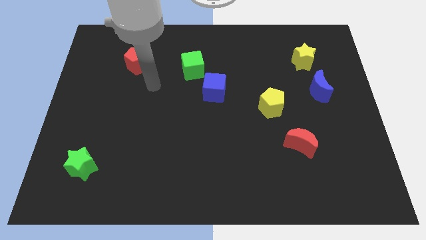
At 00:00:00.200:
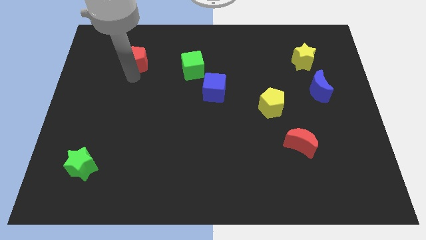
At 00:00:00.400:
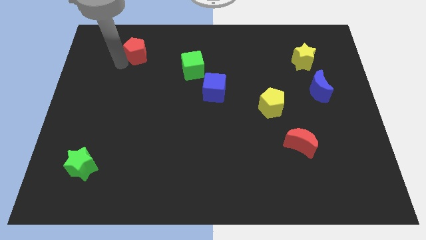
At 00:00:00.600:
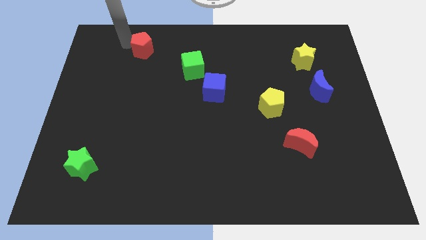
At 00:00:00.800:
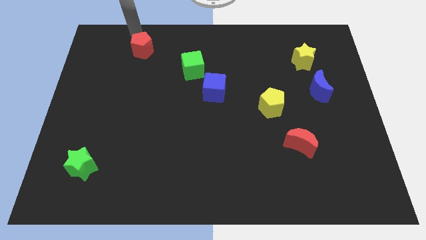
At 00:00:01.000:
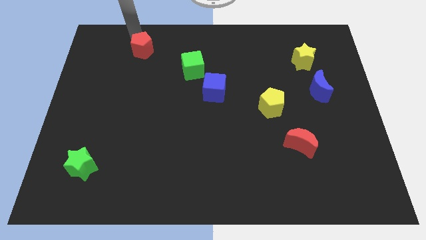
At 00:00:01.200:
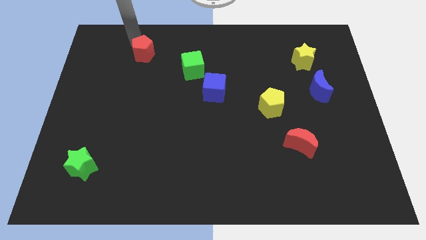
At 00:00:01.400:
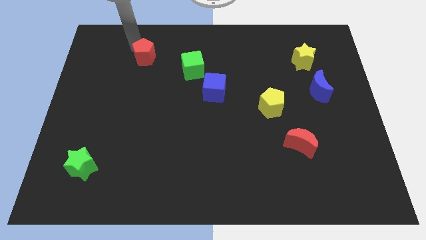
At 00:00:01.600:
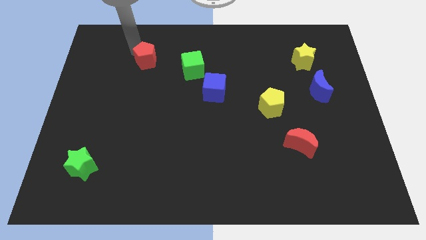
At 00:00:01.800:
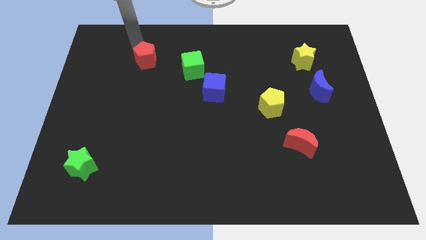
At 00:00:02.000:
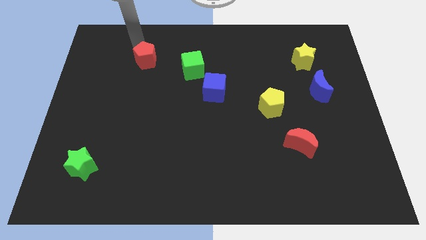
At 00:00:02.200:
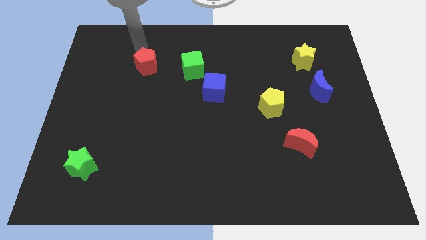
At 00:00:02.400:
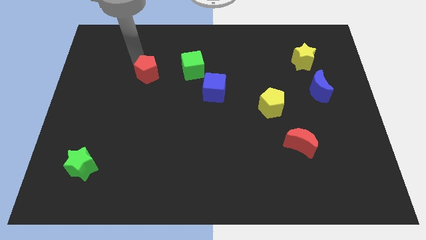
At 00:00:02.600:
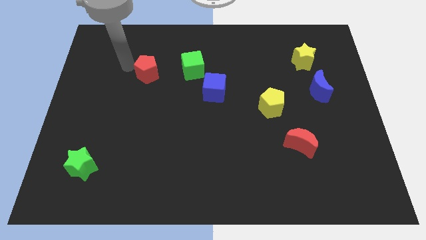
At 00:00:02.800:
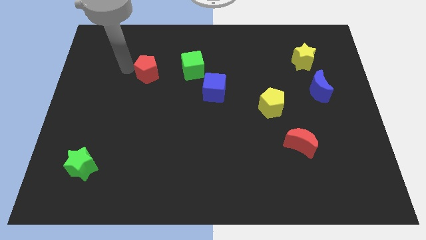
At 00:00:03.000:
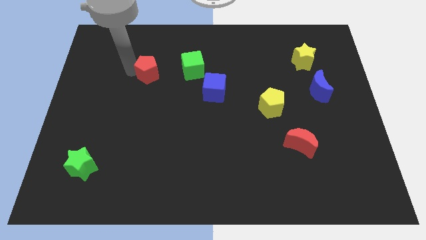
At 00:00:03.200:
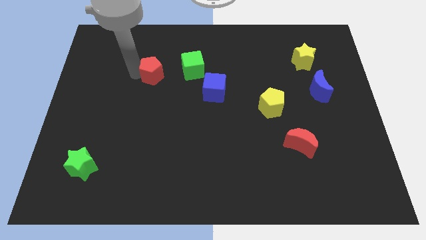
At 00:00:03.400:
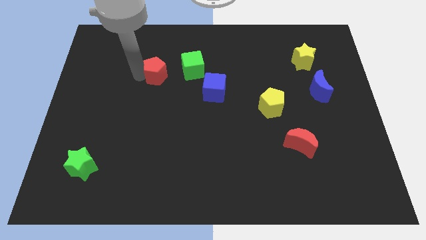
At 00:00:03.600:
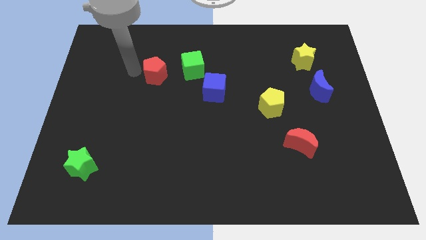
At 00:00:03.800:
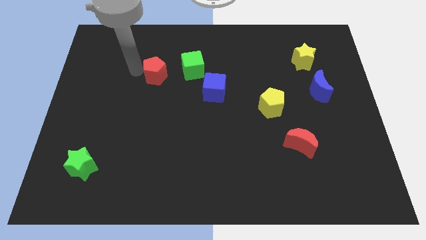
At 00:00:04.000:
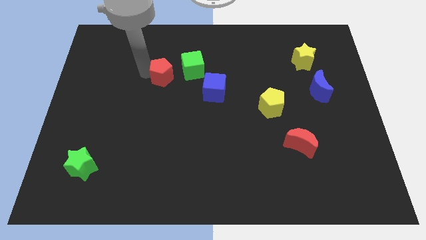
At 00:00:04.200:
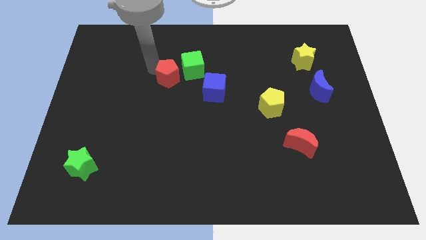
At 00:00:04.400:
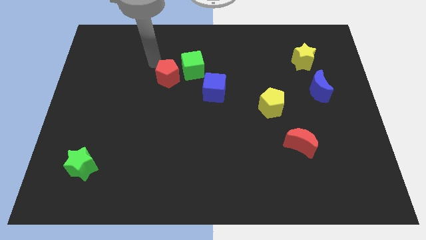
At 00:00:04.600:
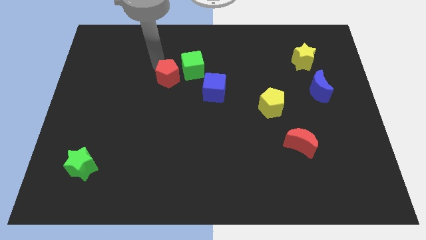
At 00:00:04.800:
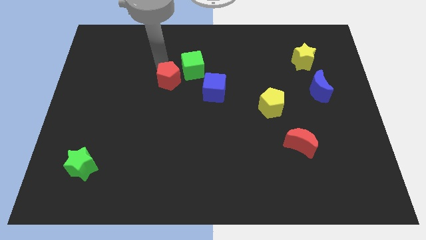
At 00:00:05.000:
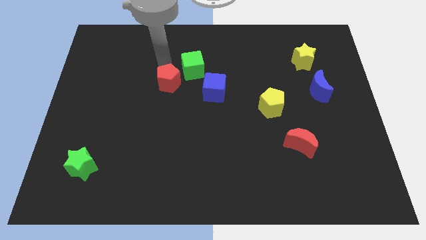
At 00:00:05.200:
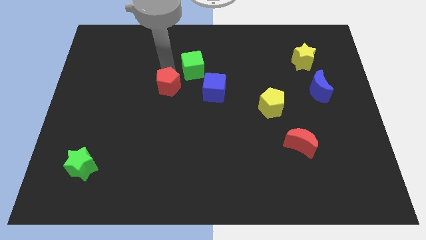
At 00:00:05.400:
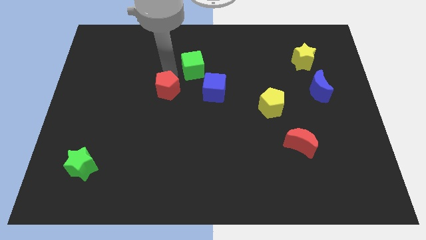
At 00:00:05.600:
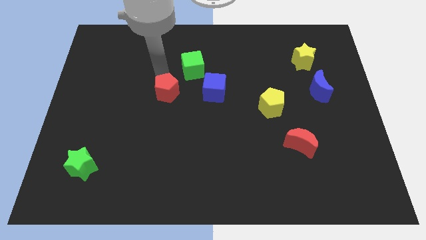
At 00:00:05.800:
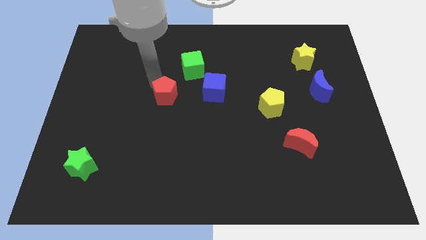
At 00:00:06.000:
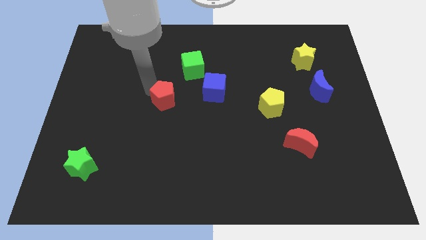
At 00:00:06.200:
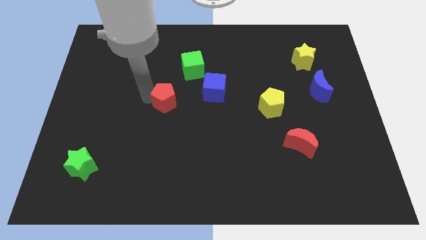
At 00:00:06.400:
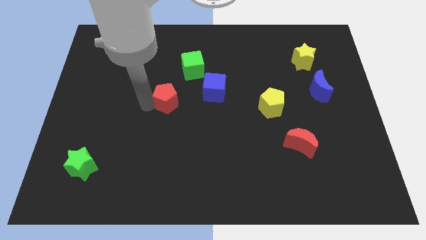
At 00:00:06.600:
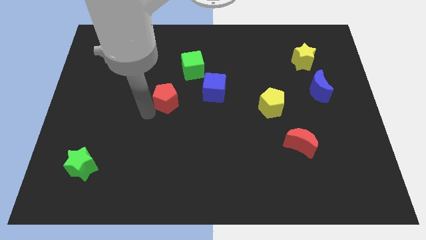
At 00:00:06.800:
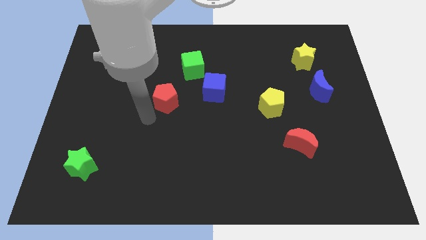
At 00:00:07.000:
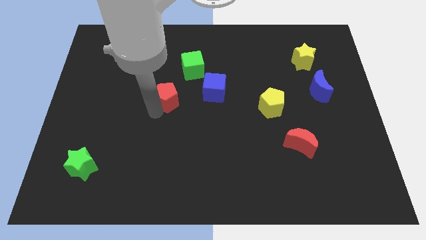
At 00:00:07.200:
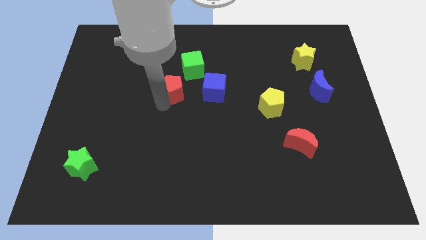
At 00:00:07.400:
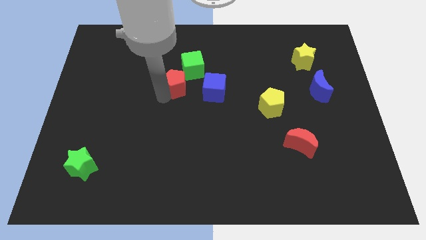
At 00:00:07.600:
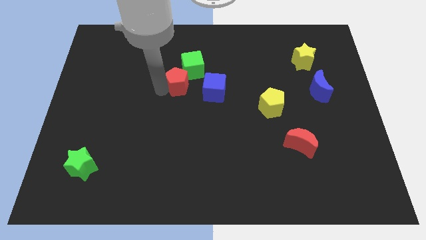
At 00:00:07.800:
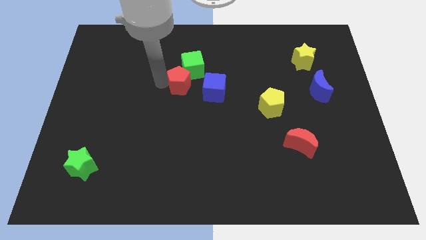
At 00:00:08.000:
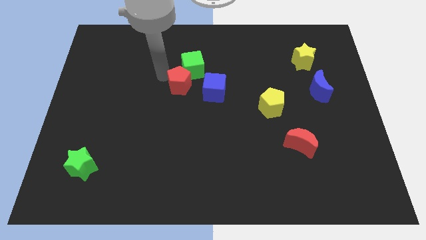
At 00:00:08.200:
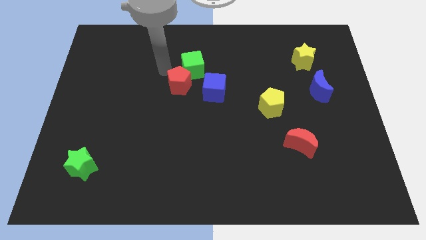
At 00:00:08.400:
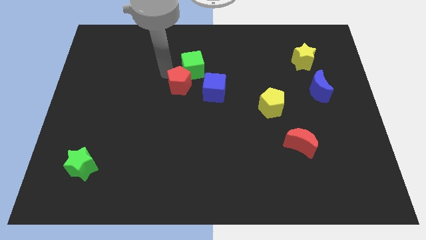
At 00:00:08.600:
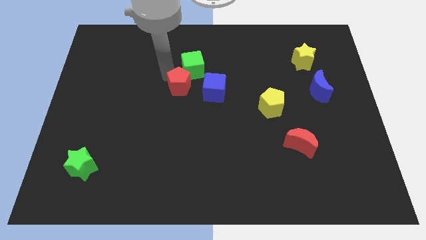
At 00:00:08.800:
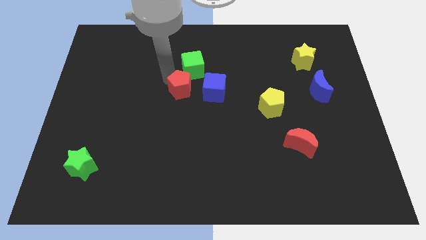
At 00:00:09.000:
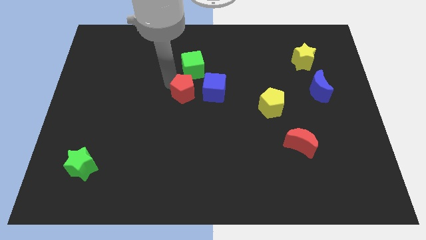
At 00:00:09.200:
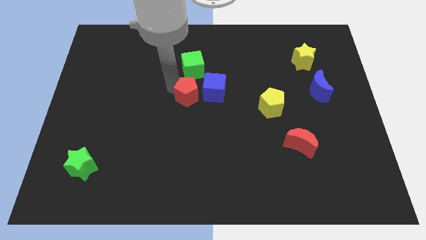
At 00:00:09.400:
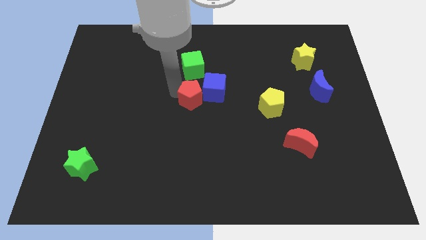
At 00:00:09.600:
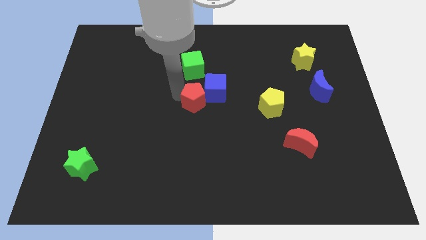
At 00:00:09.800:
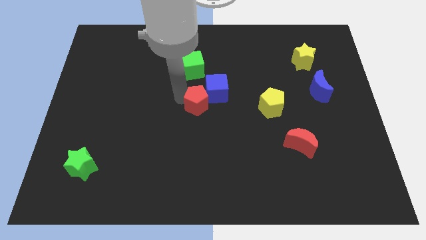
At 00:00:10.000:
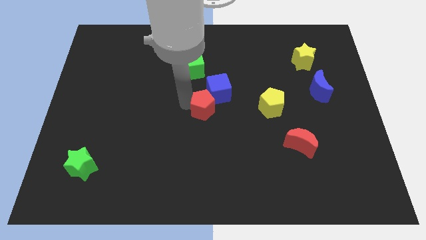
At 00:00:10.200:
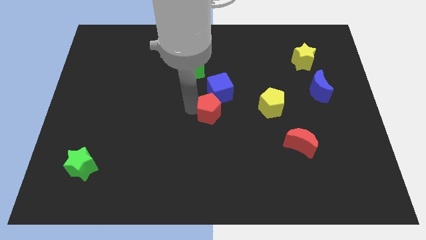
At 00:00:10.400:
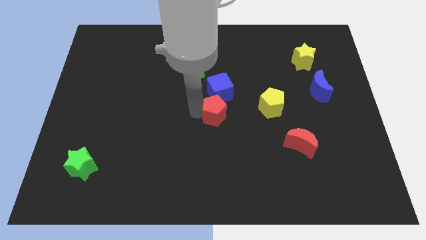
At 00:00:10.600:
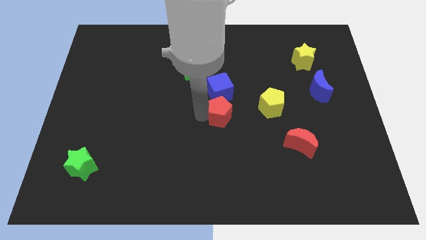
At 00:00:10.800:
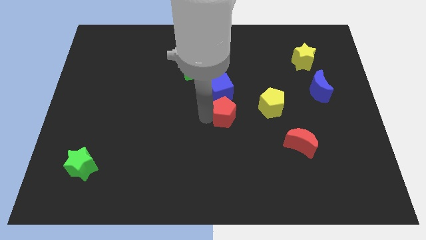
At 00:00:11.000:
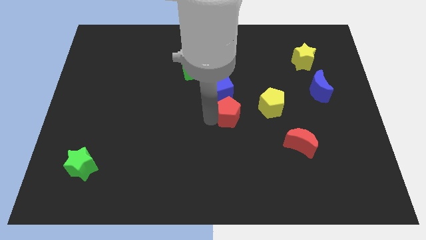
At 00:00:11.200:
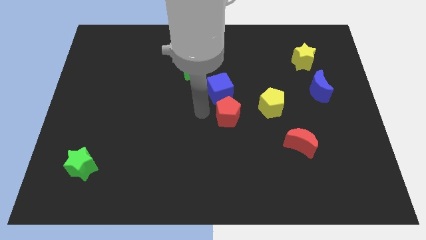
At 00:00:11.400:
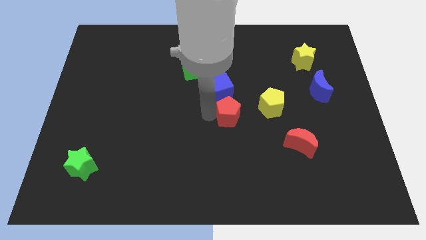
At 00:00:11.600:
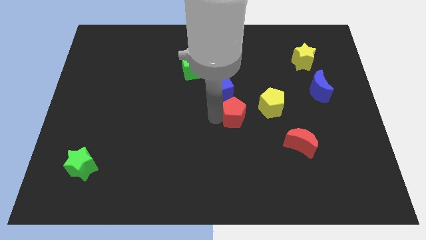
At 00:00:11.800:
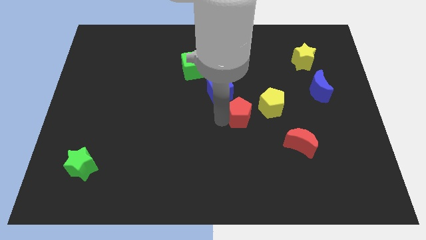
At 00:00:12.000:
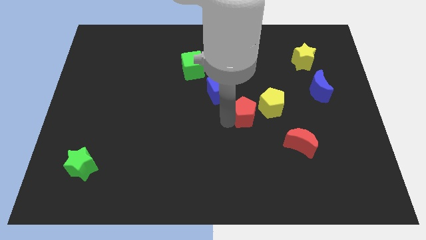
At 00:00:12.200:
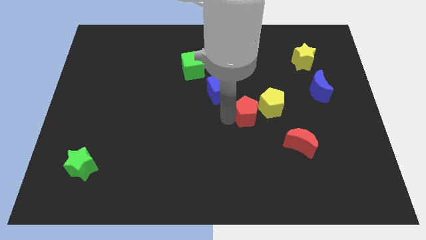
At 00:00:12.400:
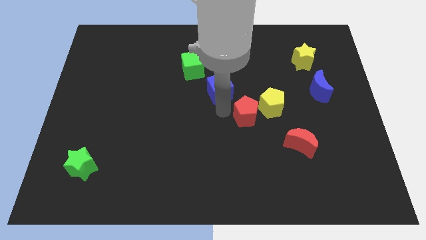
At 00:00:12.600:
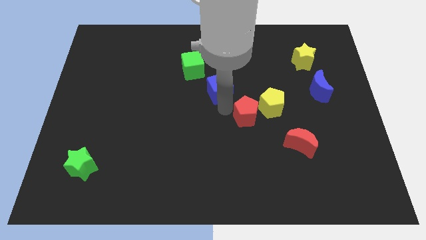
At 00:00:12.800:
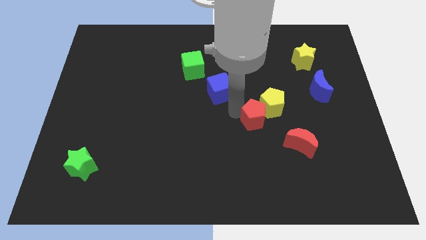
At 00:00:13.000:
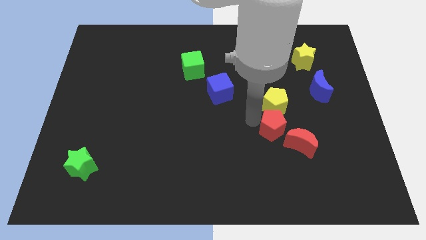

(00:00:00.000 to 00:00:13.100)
put the red pentagon diagonally down and to the right of the yellow pentagon
